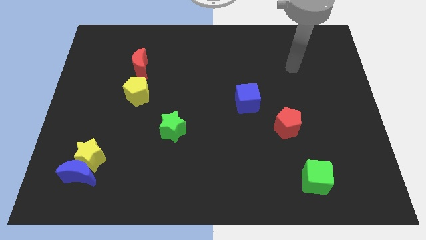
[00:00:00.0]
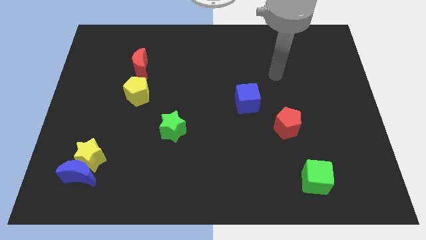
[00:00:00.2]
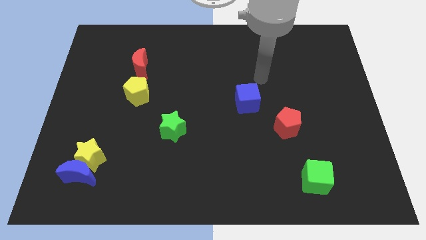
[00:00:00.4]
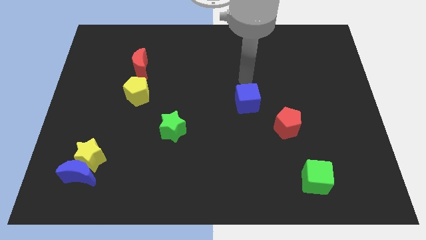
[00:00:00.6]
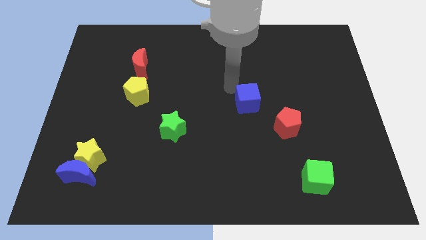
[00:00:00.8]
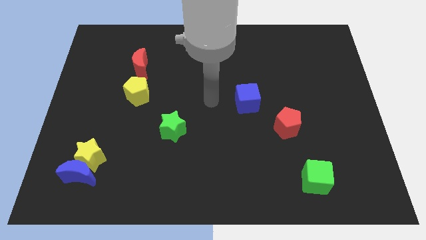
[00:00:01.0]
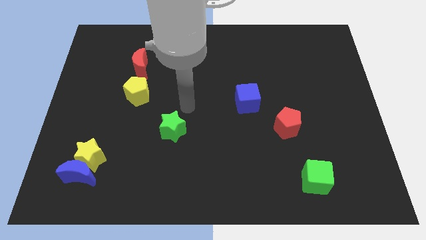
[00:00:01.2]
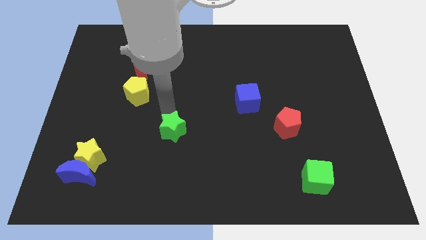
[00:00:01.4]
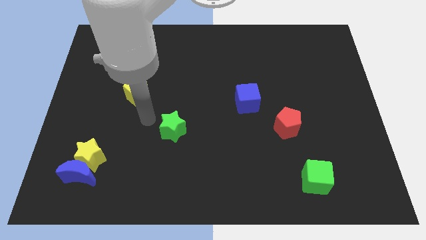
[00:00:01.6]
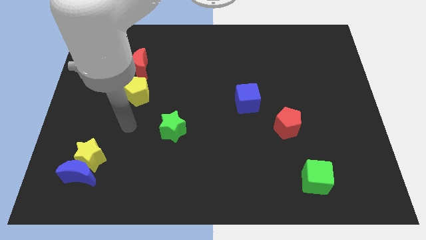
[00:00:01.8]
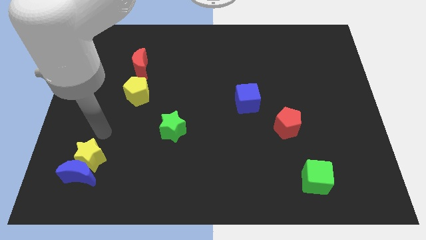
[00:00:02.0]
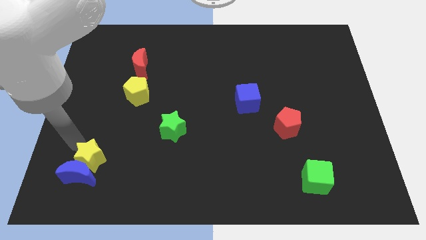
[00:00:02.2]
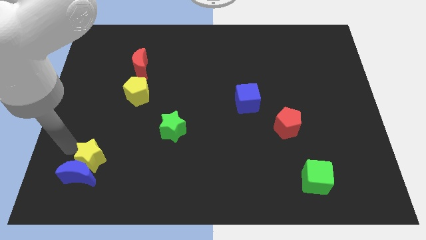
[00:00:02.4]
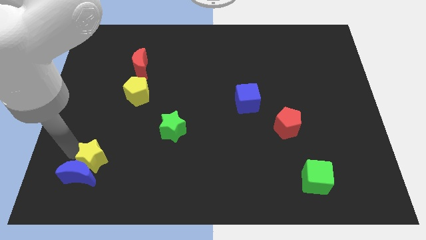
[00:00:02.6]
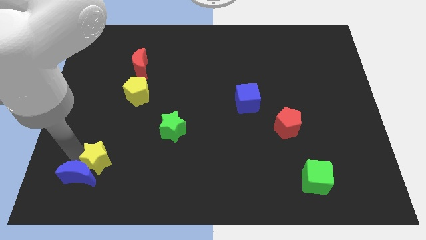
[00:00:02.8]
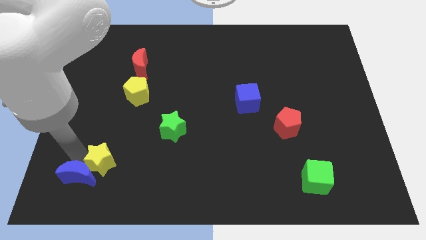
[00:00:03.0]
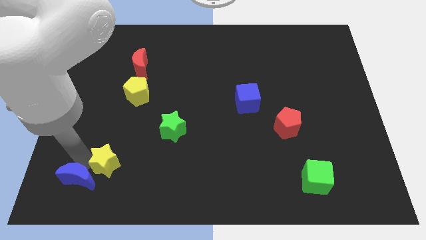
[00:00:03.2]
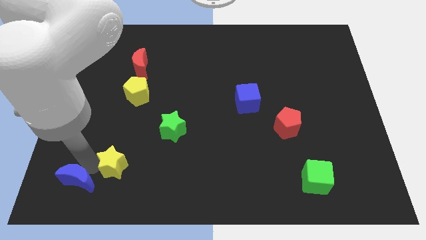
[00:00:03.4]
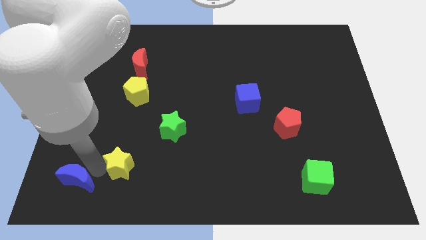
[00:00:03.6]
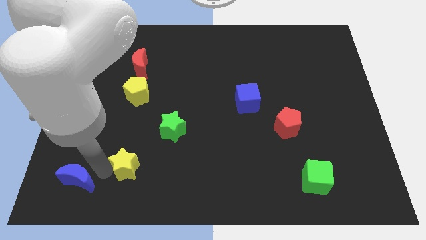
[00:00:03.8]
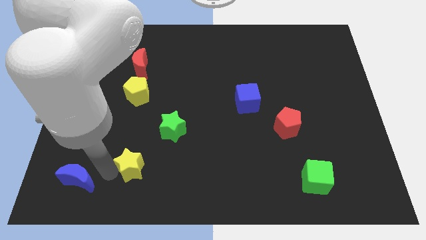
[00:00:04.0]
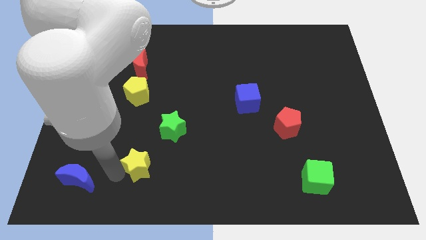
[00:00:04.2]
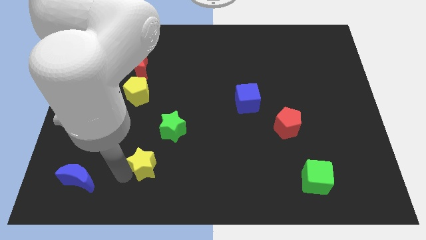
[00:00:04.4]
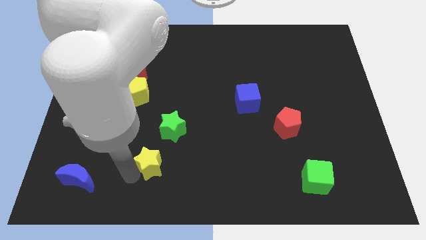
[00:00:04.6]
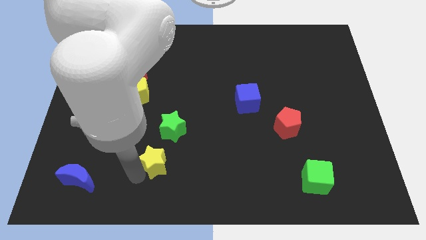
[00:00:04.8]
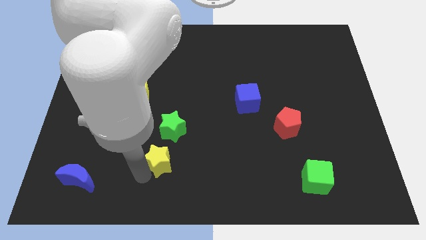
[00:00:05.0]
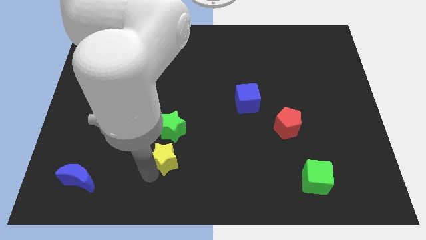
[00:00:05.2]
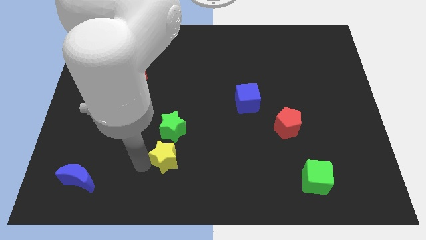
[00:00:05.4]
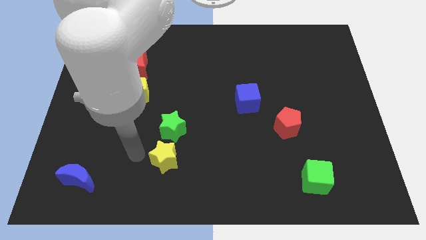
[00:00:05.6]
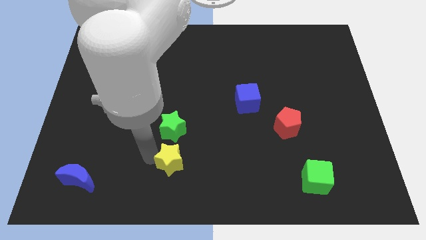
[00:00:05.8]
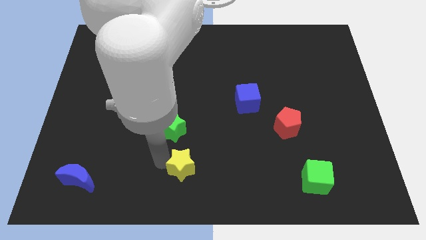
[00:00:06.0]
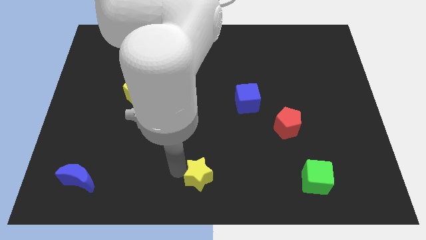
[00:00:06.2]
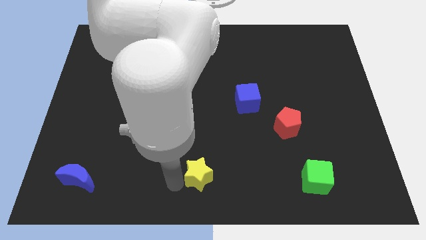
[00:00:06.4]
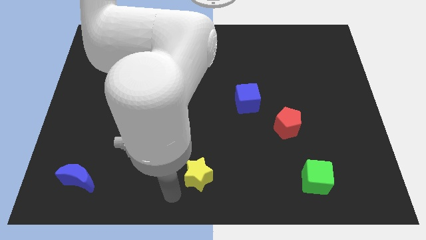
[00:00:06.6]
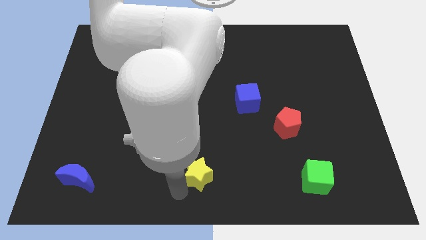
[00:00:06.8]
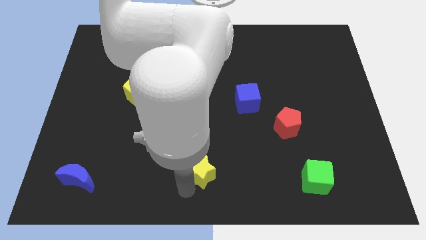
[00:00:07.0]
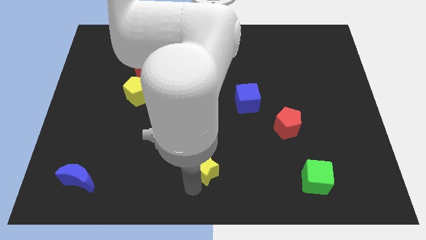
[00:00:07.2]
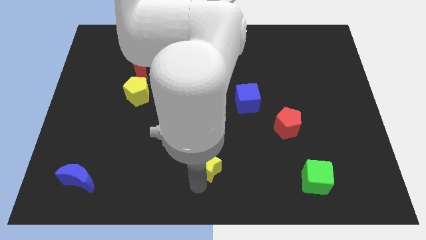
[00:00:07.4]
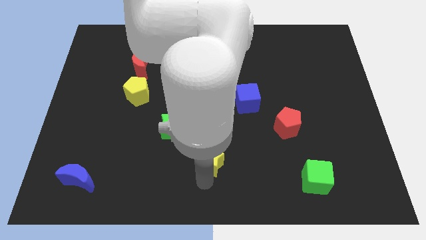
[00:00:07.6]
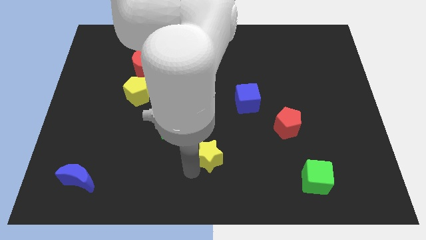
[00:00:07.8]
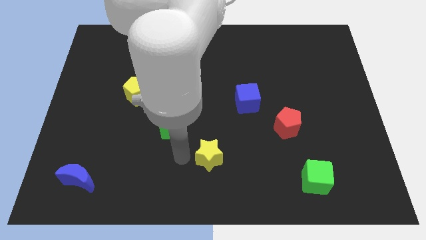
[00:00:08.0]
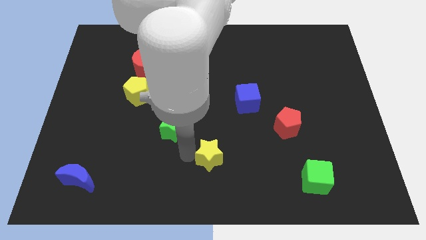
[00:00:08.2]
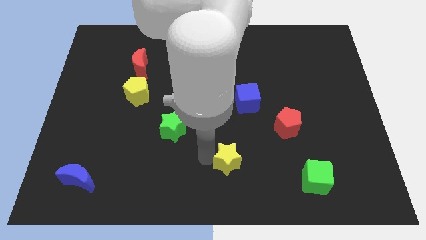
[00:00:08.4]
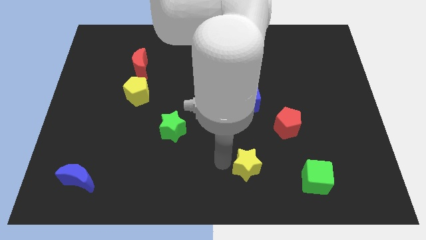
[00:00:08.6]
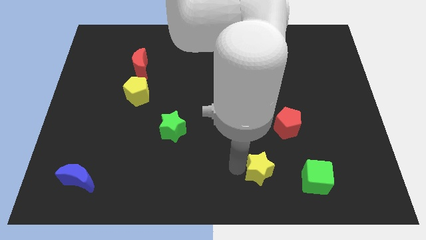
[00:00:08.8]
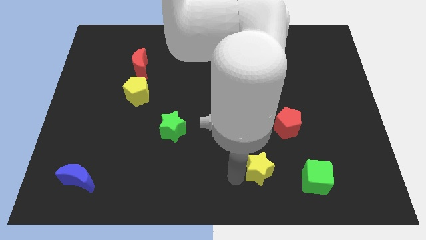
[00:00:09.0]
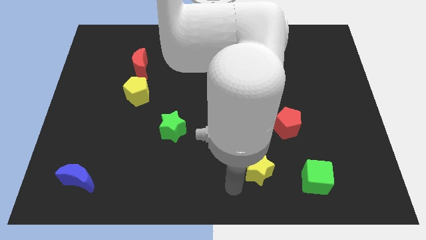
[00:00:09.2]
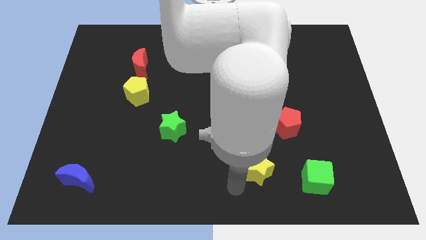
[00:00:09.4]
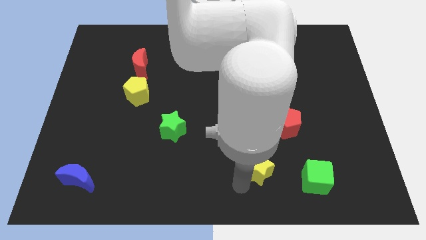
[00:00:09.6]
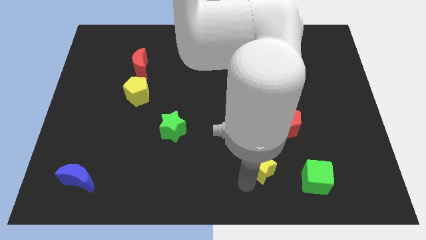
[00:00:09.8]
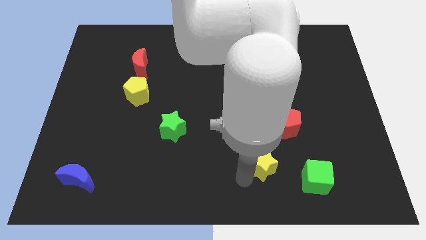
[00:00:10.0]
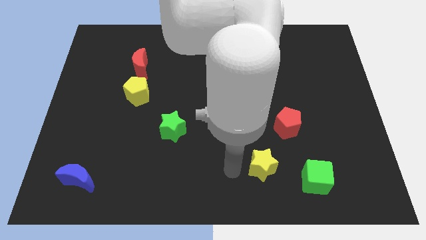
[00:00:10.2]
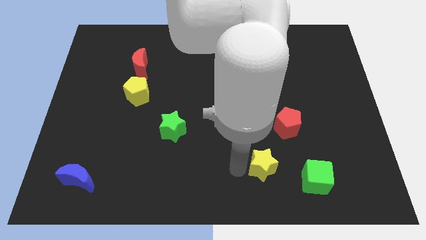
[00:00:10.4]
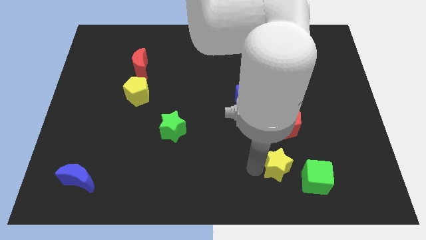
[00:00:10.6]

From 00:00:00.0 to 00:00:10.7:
move the yellow star below the red pentagon

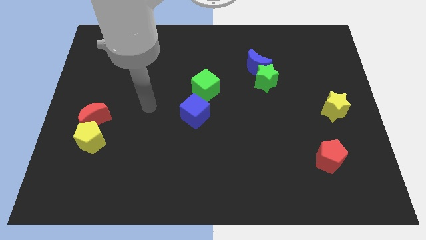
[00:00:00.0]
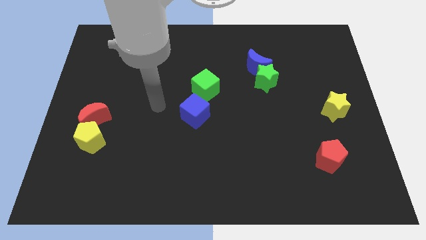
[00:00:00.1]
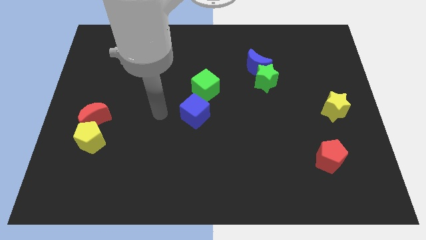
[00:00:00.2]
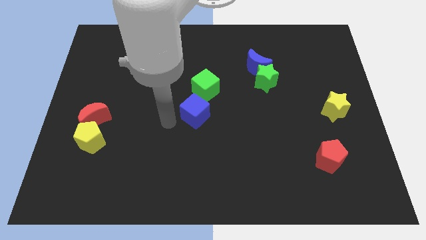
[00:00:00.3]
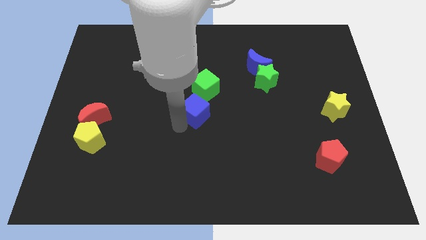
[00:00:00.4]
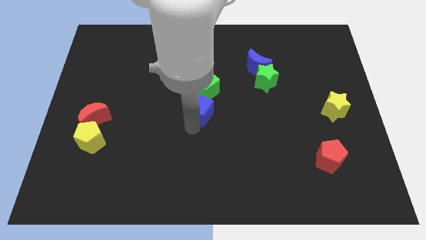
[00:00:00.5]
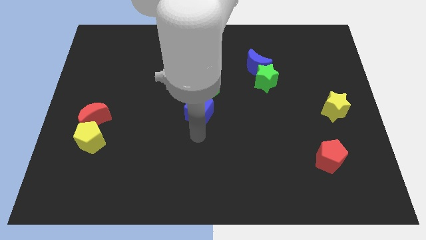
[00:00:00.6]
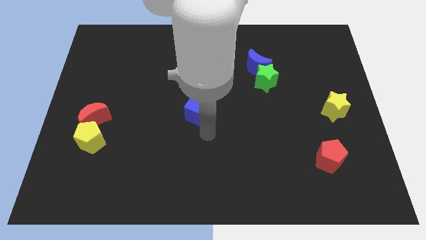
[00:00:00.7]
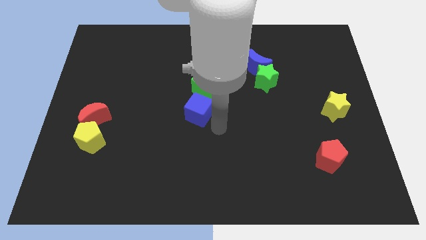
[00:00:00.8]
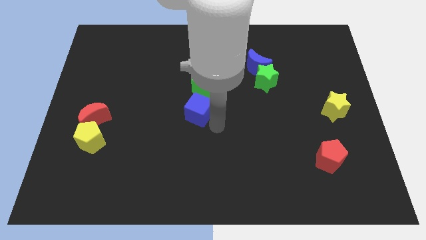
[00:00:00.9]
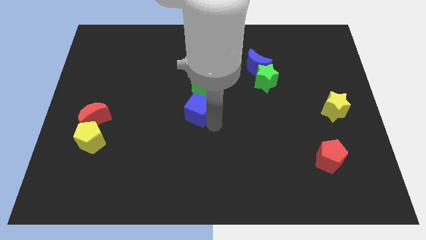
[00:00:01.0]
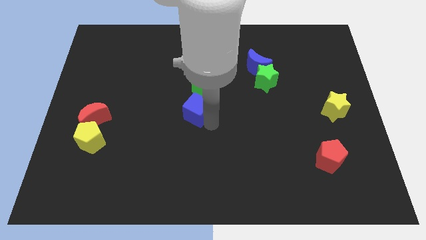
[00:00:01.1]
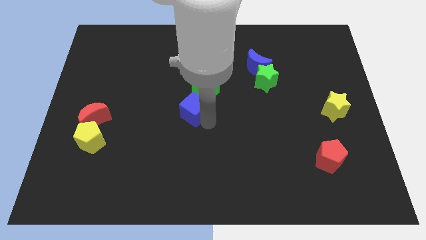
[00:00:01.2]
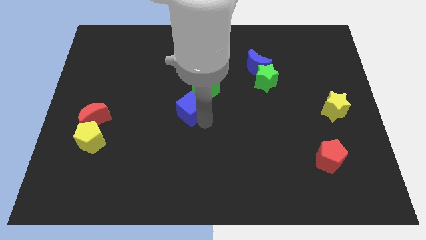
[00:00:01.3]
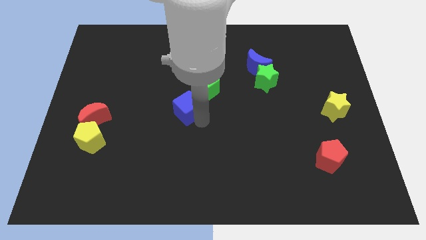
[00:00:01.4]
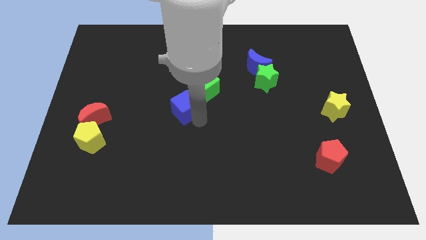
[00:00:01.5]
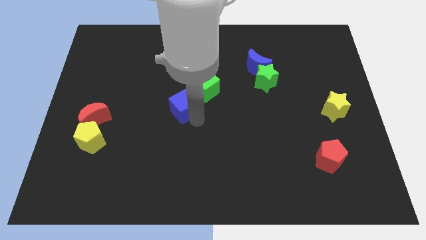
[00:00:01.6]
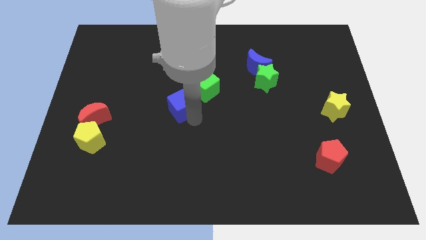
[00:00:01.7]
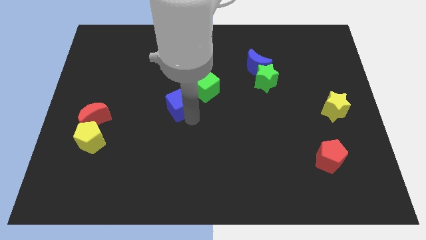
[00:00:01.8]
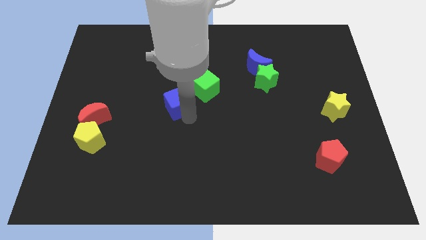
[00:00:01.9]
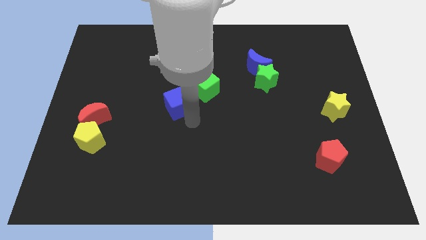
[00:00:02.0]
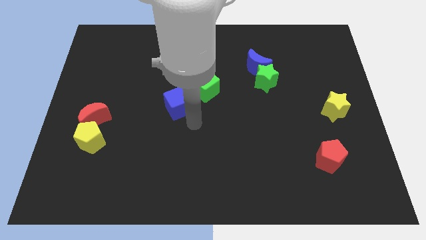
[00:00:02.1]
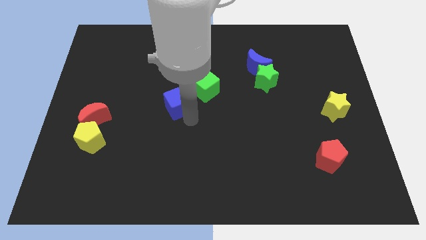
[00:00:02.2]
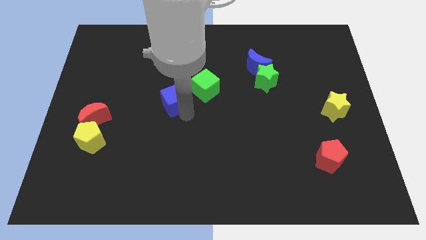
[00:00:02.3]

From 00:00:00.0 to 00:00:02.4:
move the blue cube left of the green cube
